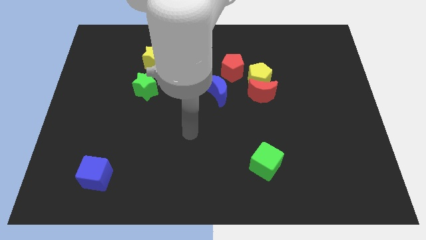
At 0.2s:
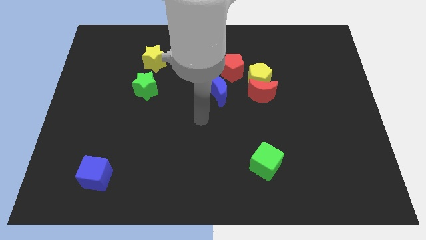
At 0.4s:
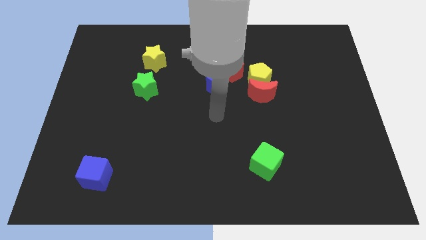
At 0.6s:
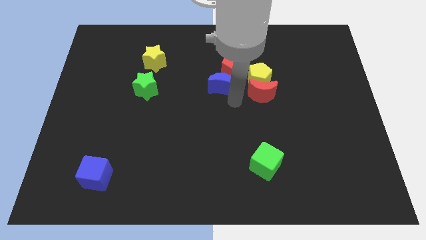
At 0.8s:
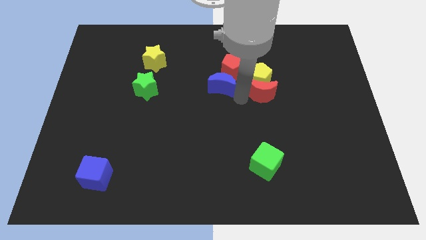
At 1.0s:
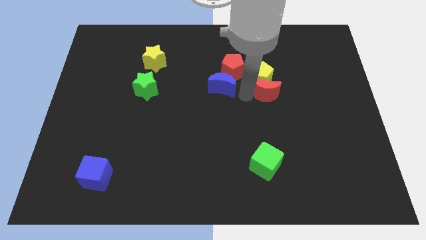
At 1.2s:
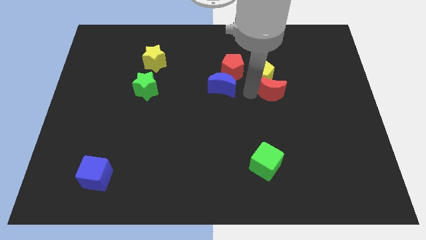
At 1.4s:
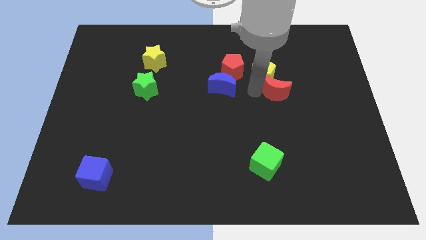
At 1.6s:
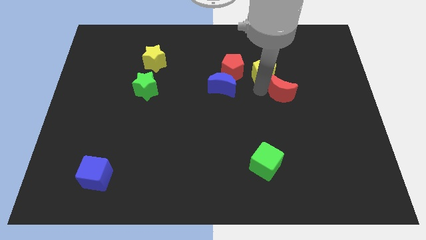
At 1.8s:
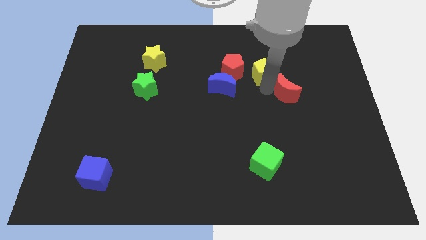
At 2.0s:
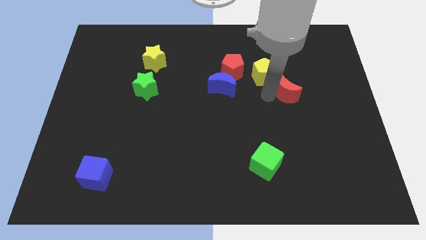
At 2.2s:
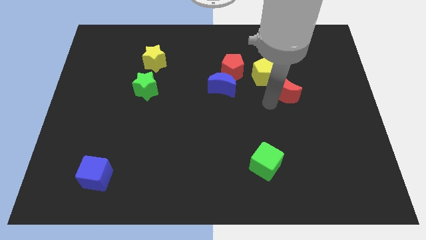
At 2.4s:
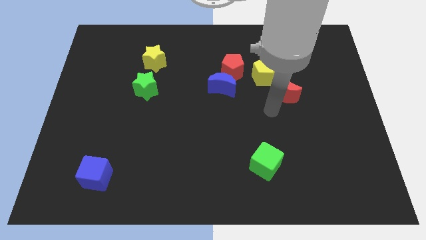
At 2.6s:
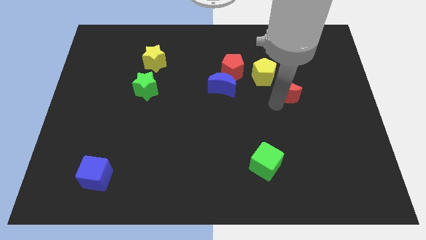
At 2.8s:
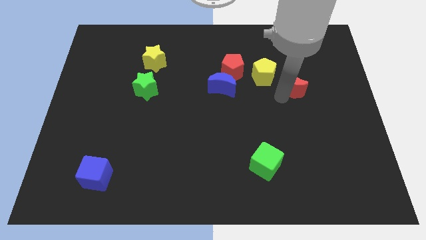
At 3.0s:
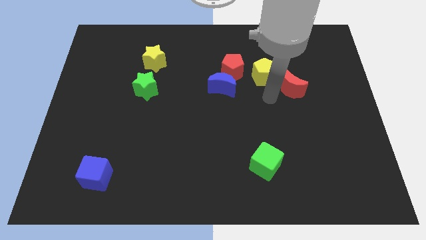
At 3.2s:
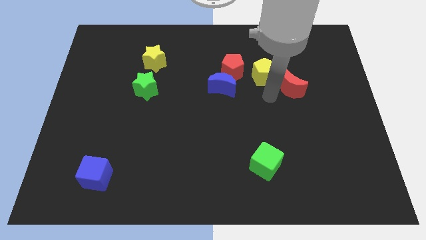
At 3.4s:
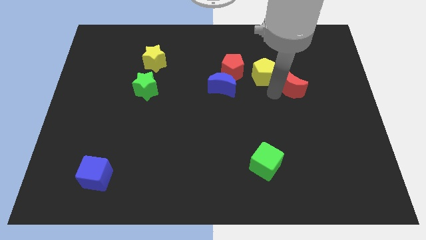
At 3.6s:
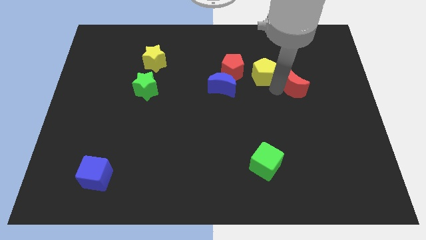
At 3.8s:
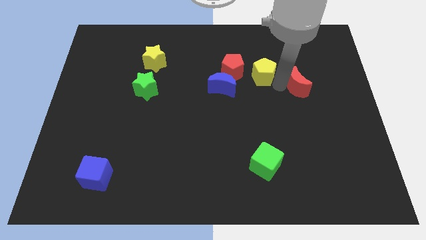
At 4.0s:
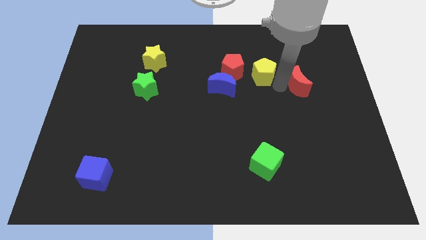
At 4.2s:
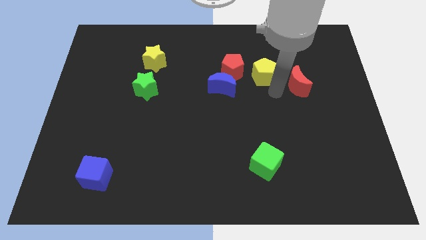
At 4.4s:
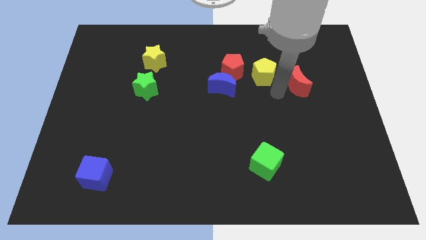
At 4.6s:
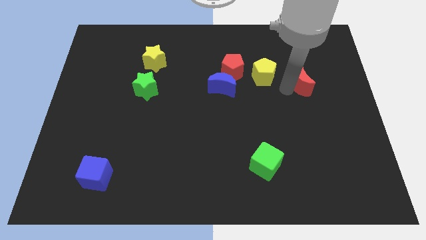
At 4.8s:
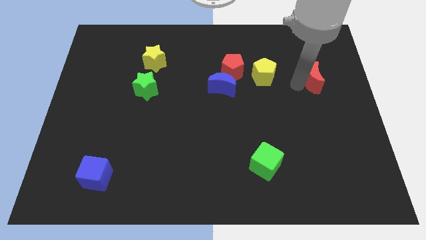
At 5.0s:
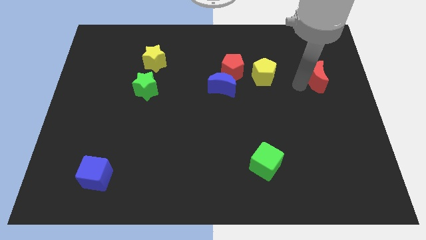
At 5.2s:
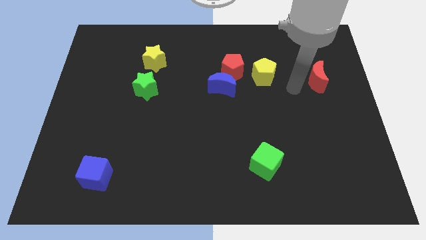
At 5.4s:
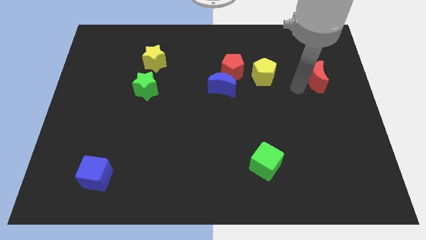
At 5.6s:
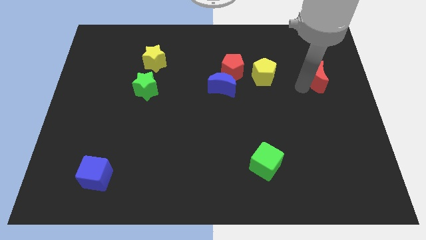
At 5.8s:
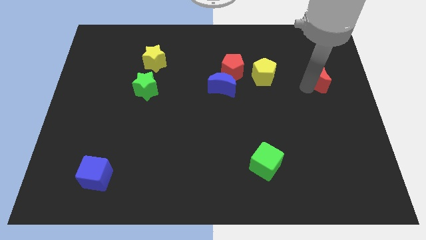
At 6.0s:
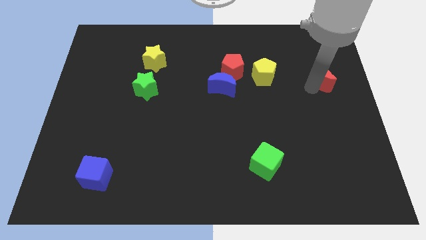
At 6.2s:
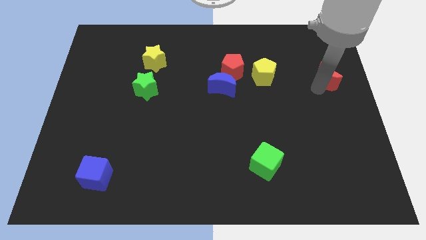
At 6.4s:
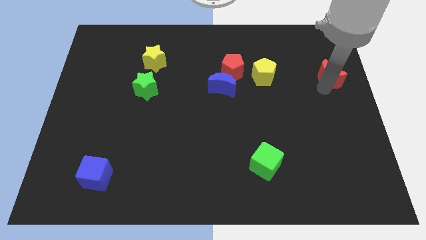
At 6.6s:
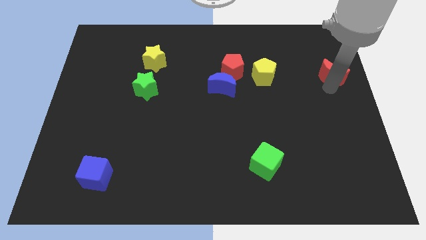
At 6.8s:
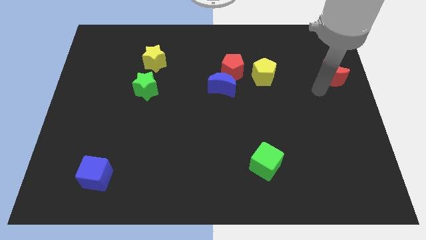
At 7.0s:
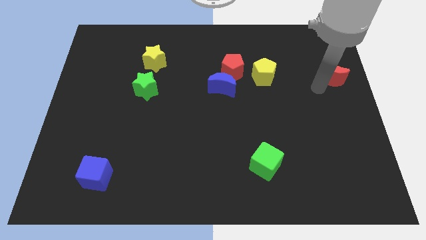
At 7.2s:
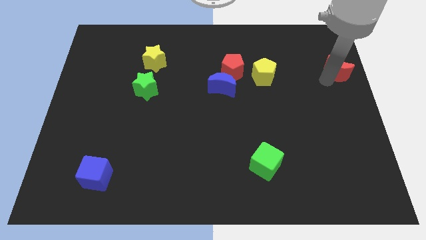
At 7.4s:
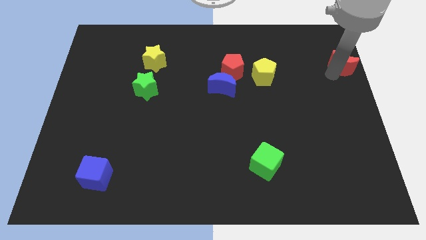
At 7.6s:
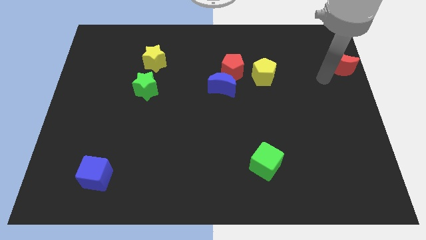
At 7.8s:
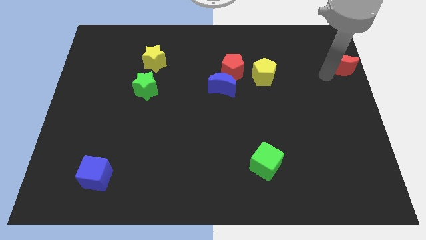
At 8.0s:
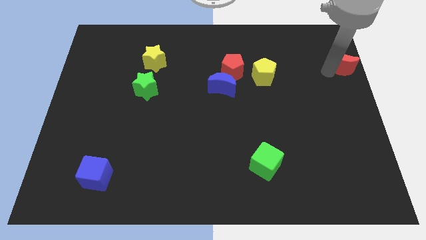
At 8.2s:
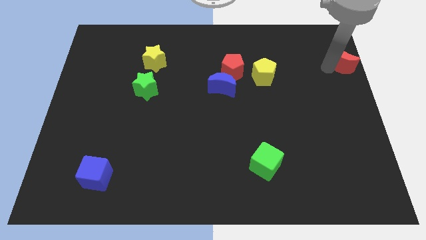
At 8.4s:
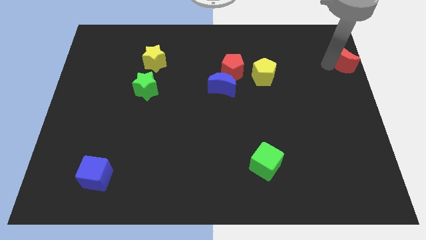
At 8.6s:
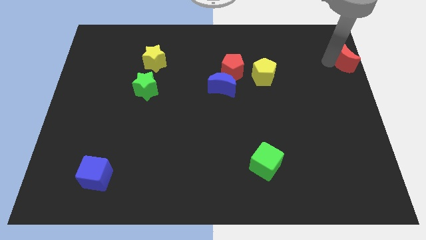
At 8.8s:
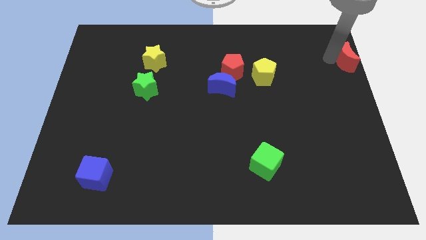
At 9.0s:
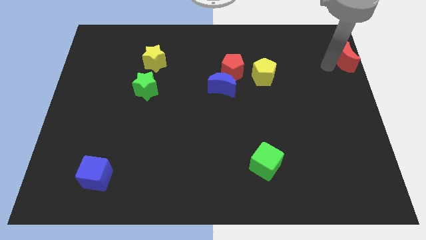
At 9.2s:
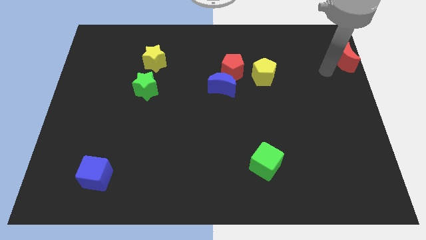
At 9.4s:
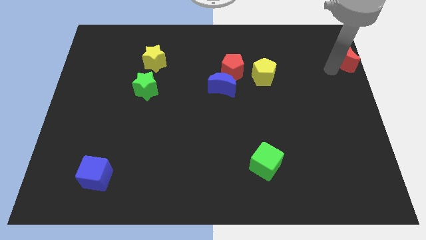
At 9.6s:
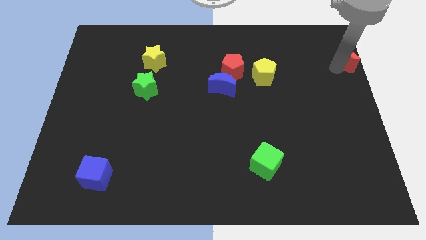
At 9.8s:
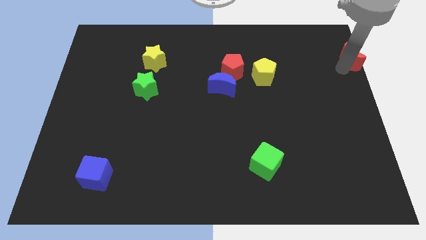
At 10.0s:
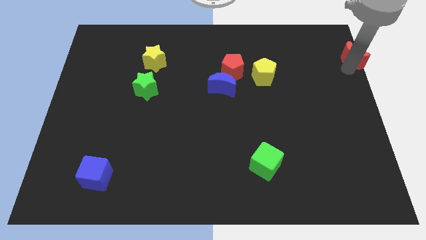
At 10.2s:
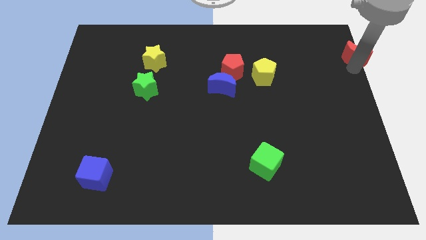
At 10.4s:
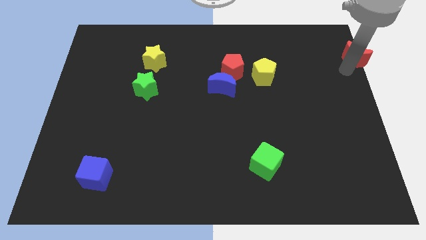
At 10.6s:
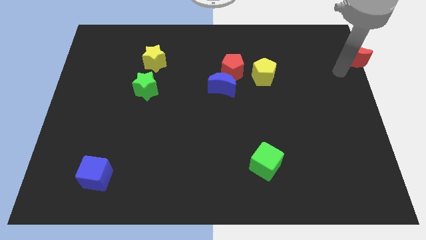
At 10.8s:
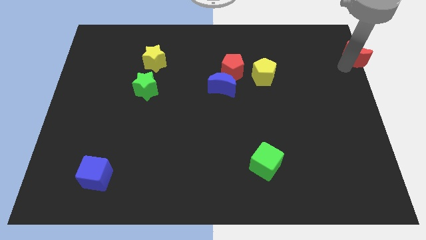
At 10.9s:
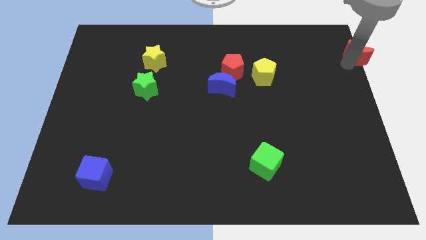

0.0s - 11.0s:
slide the red moon to the upper right corner

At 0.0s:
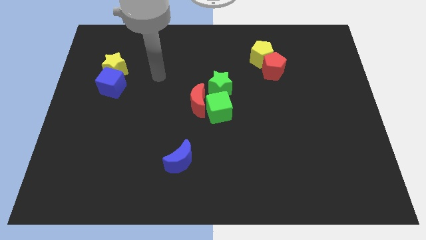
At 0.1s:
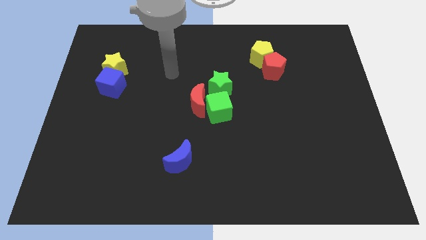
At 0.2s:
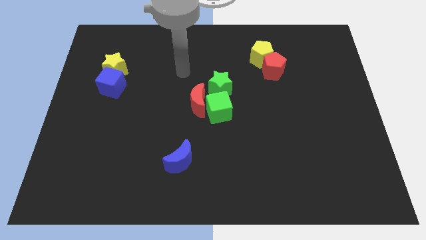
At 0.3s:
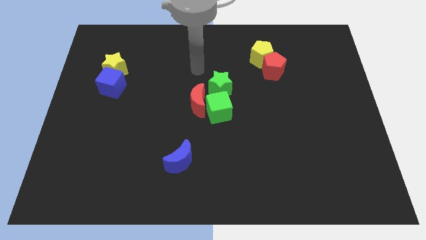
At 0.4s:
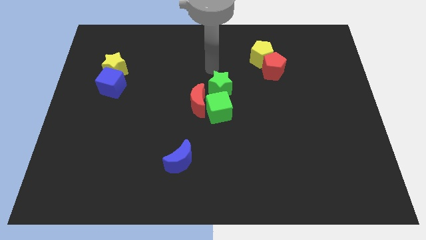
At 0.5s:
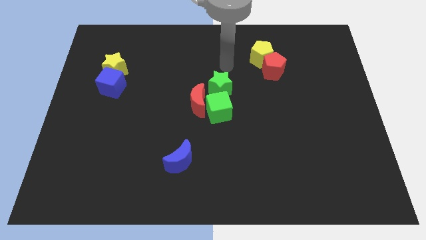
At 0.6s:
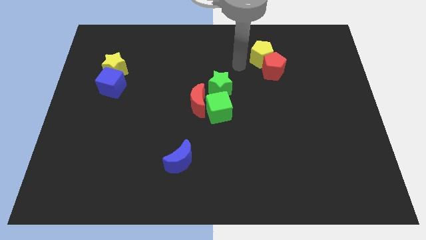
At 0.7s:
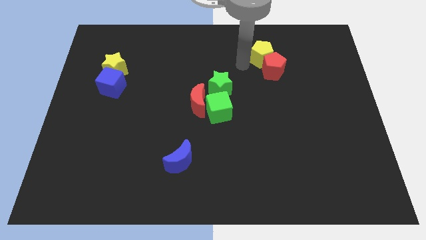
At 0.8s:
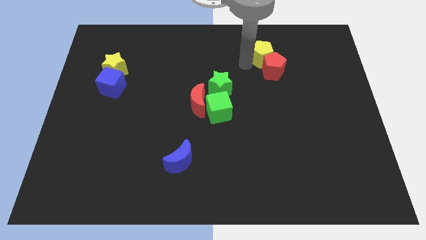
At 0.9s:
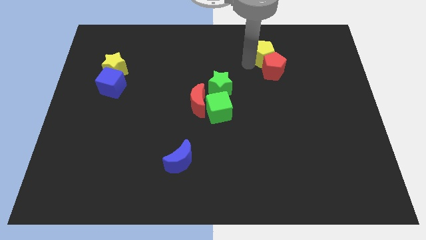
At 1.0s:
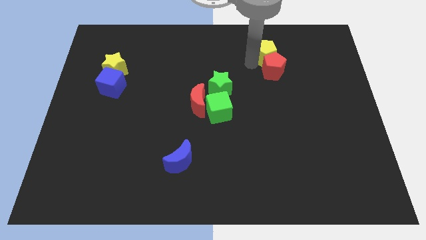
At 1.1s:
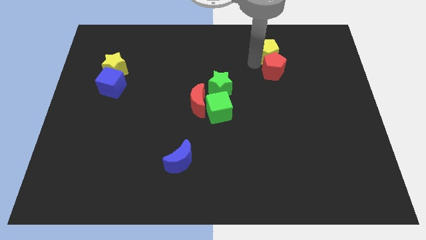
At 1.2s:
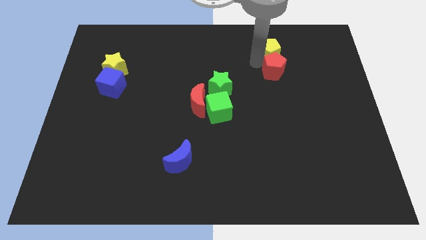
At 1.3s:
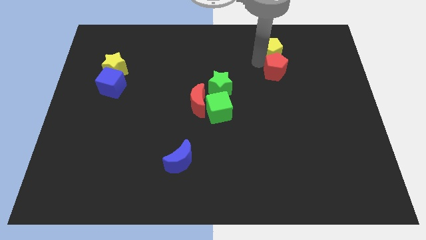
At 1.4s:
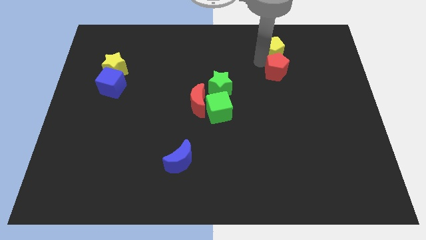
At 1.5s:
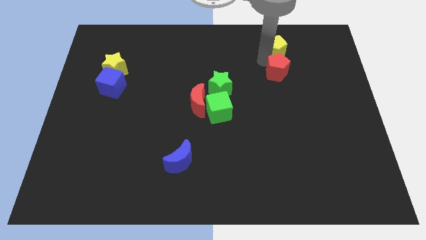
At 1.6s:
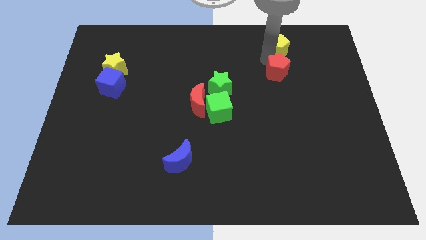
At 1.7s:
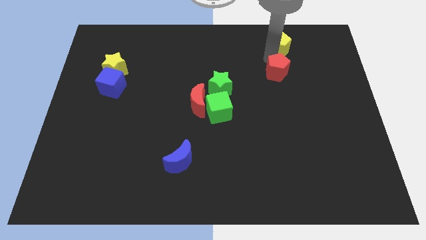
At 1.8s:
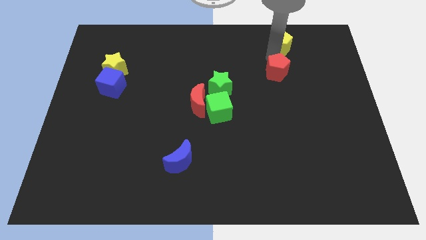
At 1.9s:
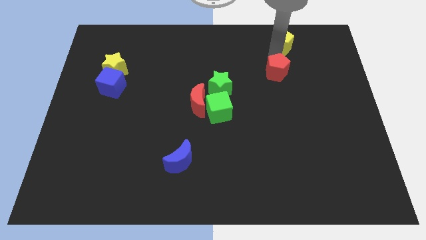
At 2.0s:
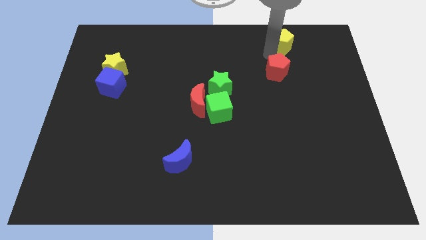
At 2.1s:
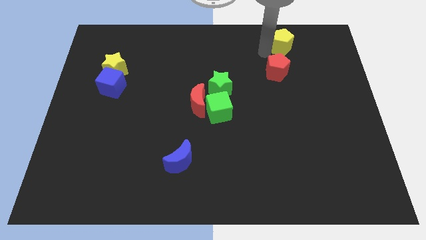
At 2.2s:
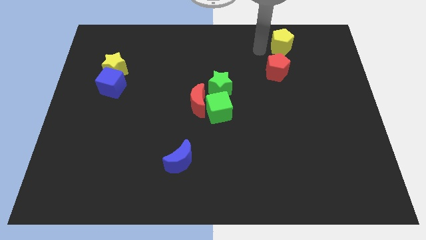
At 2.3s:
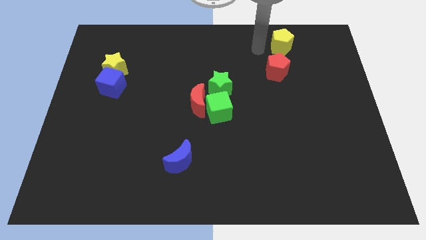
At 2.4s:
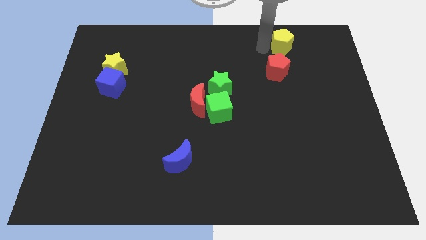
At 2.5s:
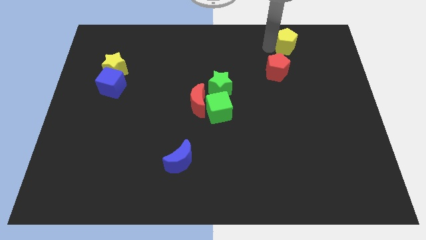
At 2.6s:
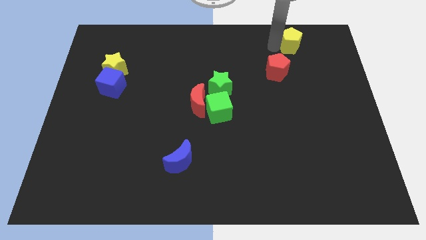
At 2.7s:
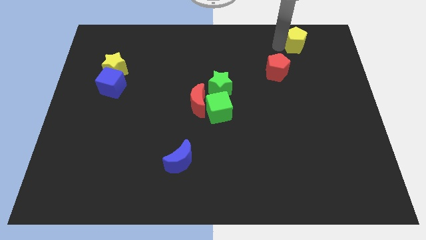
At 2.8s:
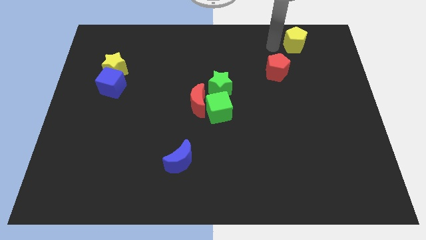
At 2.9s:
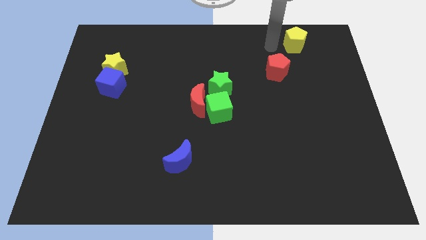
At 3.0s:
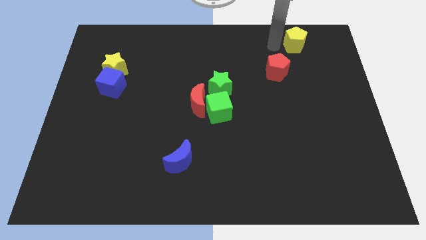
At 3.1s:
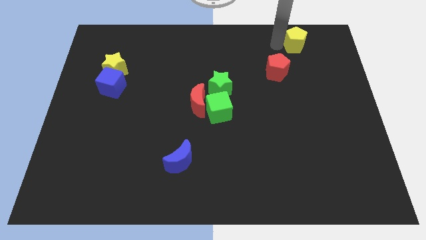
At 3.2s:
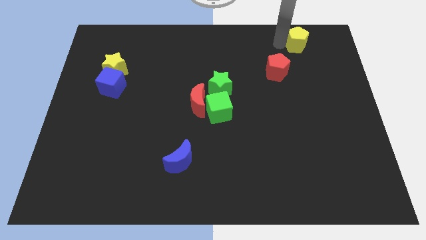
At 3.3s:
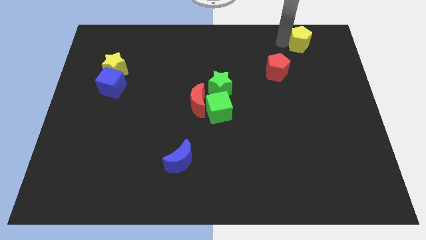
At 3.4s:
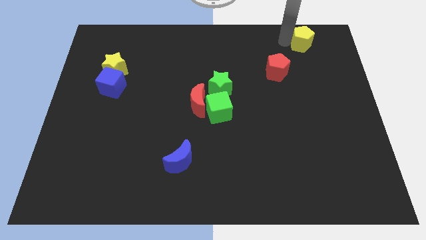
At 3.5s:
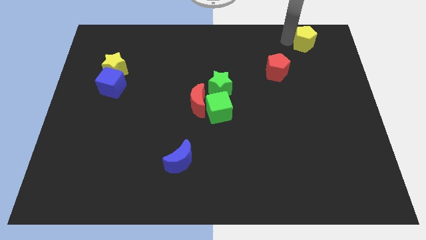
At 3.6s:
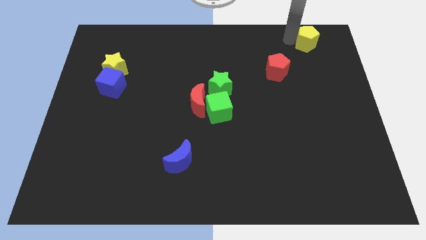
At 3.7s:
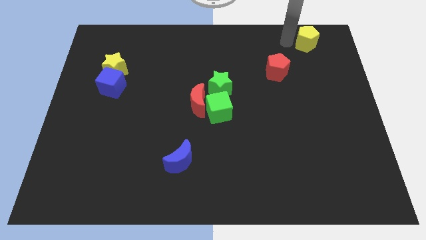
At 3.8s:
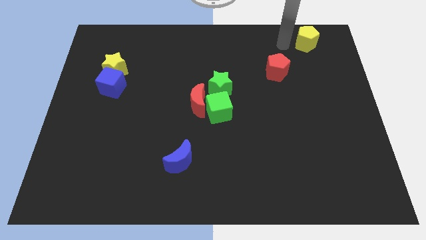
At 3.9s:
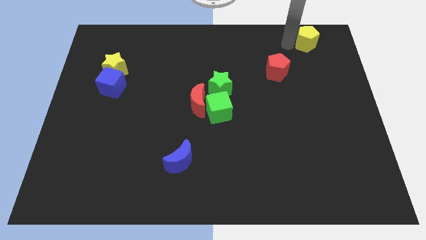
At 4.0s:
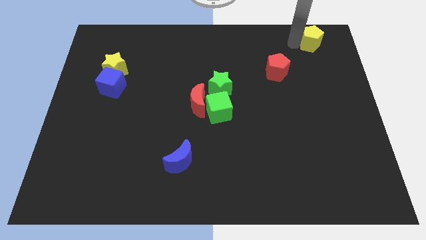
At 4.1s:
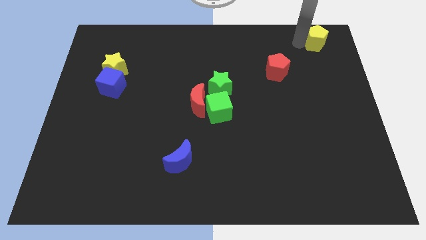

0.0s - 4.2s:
push the yellow pentagon to the top right corner
